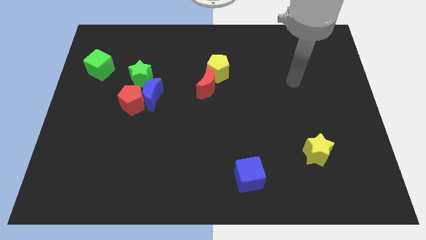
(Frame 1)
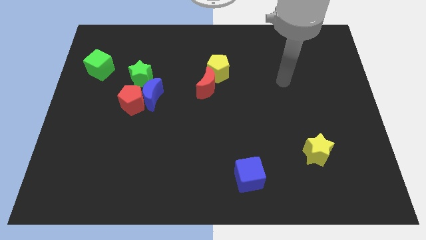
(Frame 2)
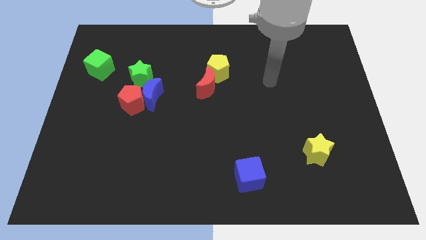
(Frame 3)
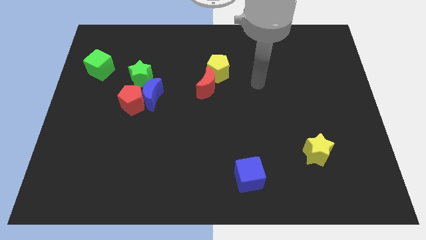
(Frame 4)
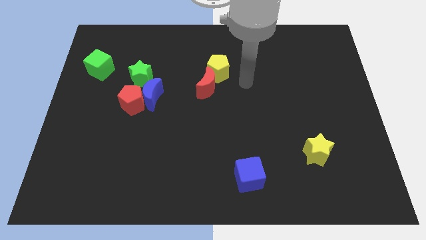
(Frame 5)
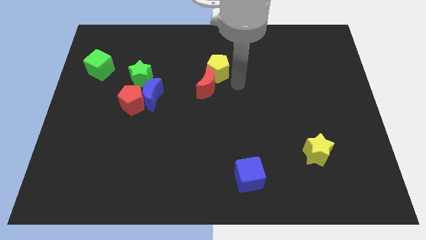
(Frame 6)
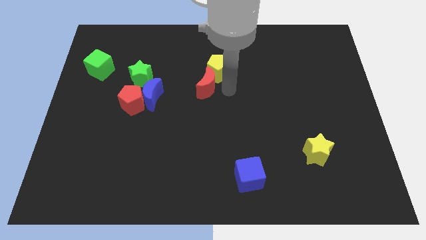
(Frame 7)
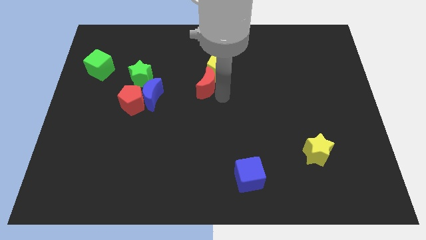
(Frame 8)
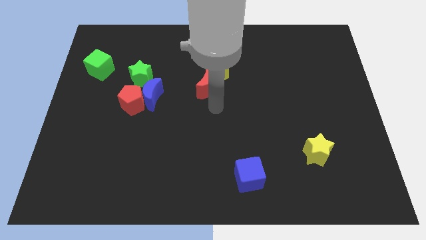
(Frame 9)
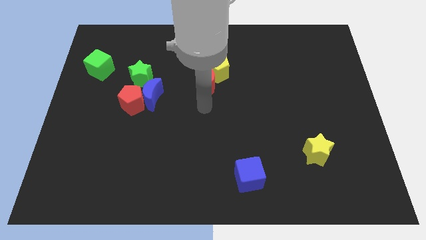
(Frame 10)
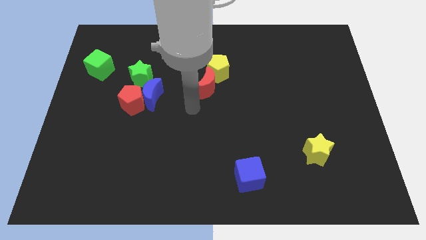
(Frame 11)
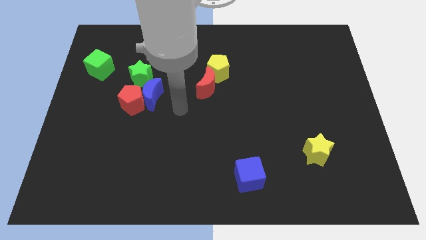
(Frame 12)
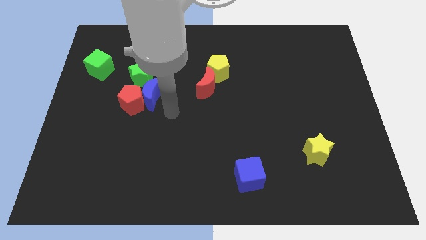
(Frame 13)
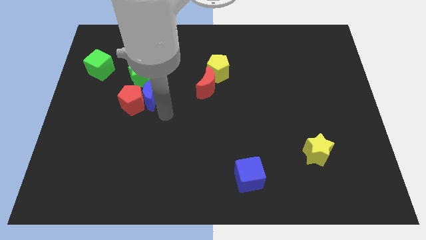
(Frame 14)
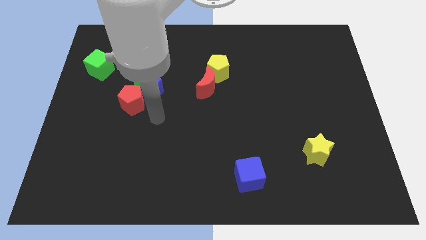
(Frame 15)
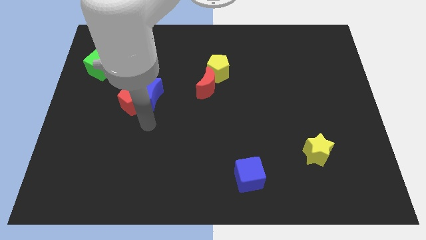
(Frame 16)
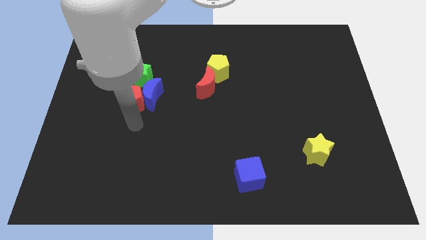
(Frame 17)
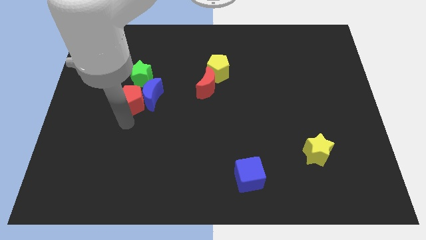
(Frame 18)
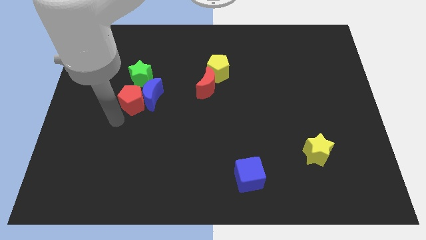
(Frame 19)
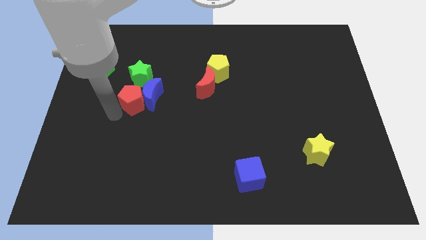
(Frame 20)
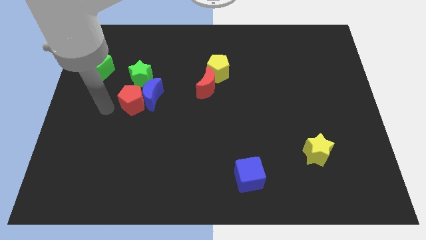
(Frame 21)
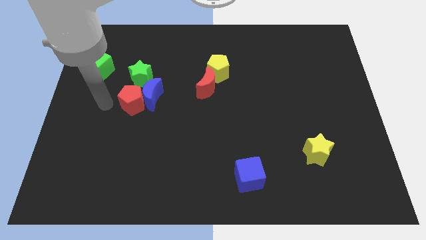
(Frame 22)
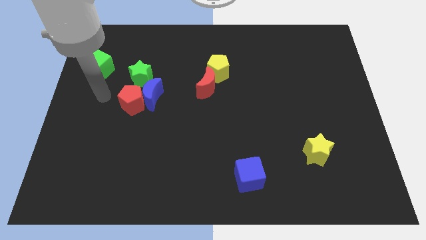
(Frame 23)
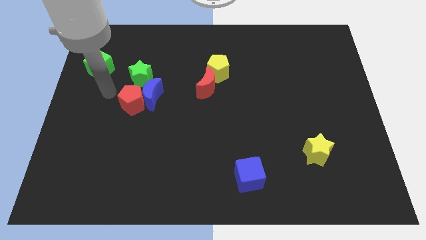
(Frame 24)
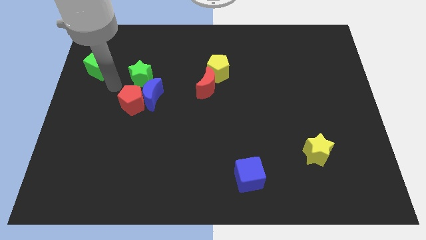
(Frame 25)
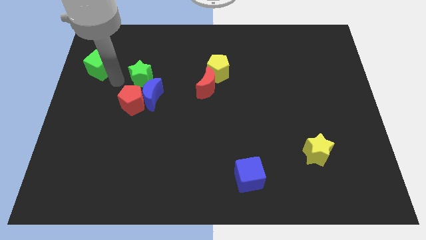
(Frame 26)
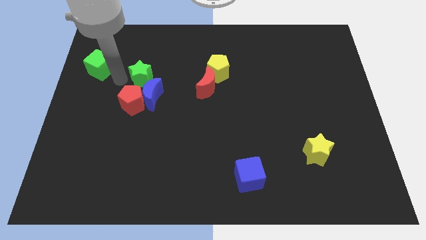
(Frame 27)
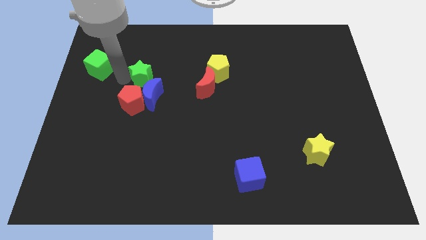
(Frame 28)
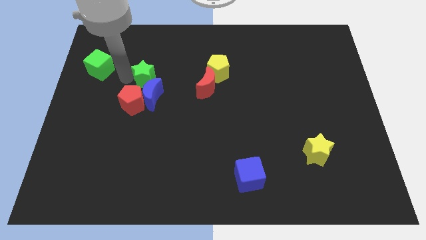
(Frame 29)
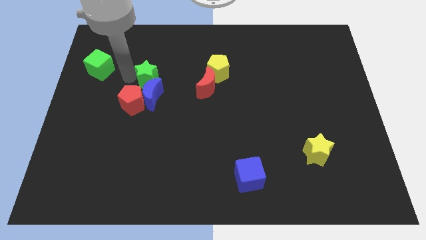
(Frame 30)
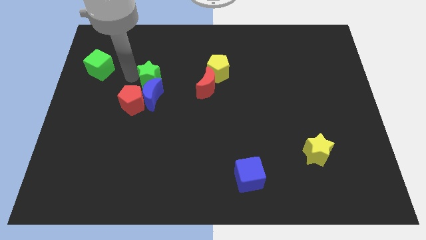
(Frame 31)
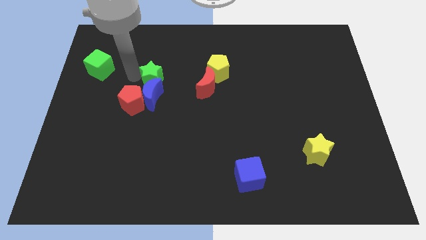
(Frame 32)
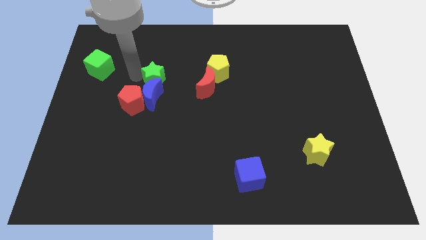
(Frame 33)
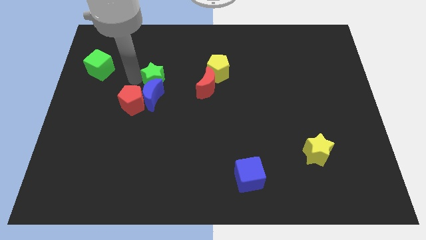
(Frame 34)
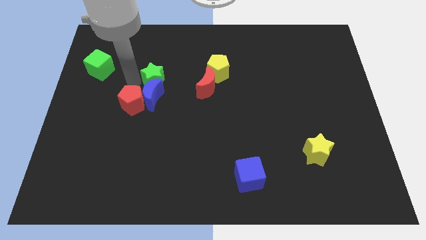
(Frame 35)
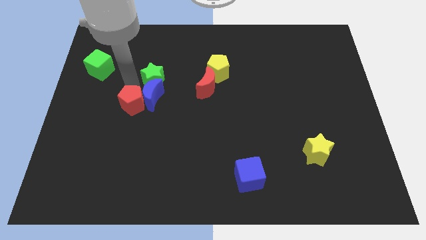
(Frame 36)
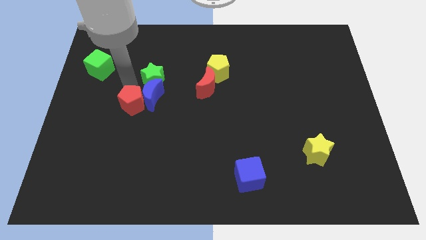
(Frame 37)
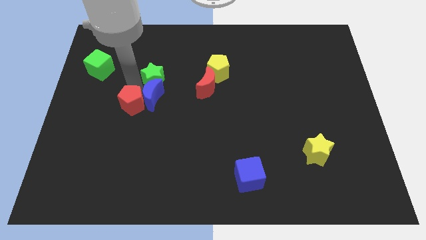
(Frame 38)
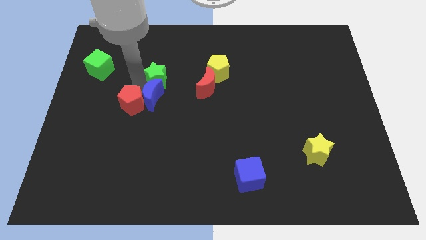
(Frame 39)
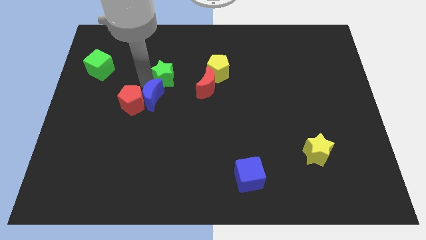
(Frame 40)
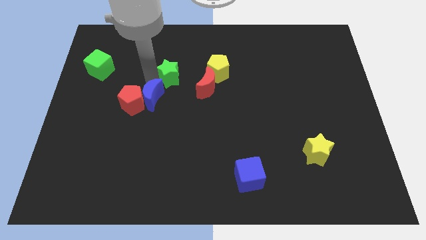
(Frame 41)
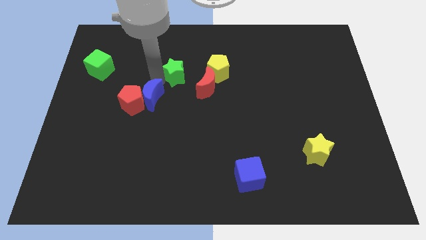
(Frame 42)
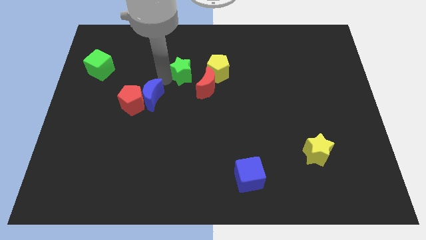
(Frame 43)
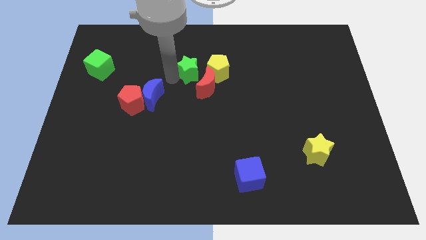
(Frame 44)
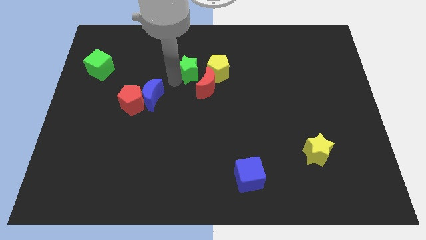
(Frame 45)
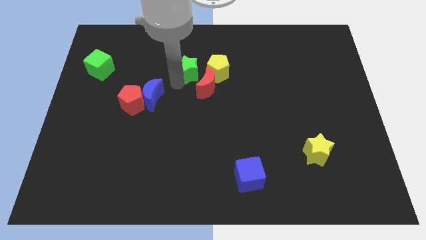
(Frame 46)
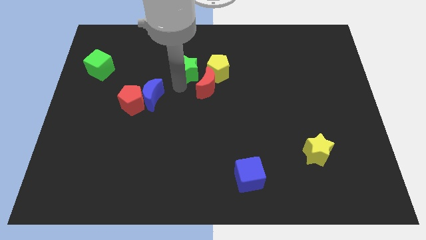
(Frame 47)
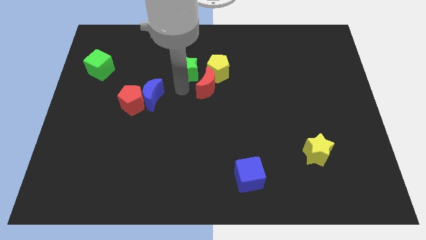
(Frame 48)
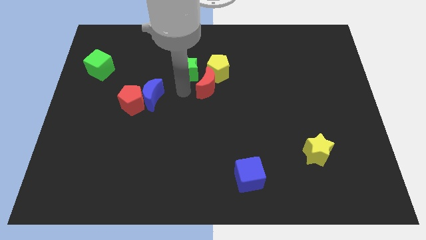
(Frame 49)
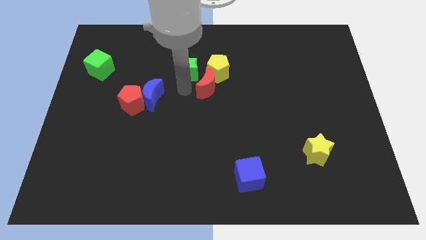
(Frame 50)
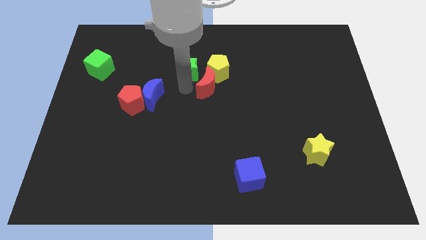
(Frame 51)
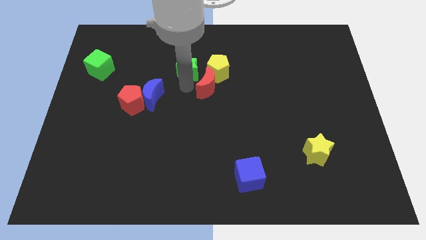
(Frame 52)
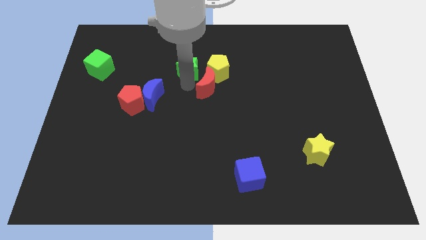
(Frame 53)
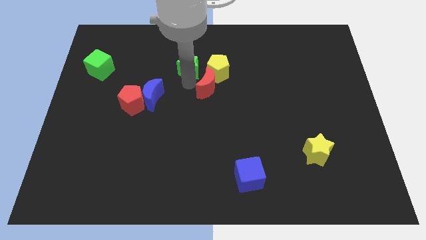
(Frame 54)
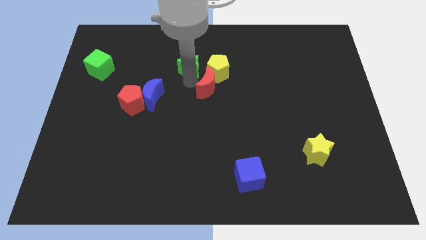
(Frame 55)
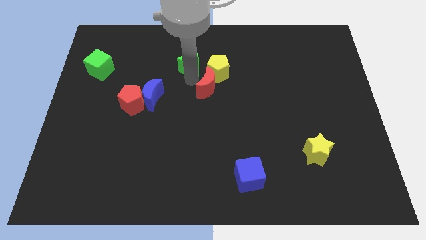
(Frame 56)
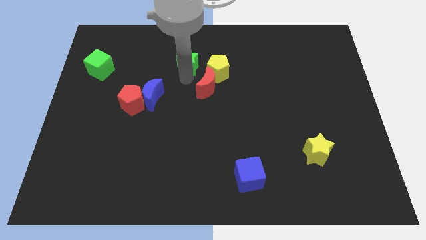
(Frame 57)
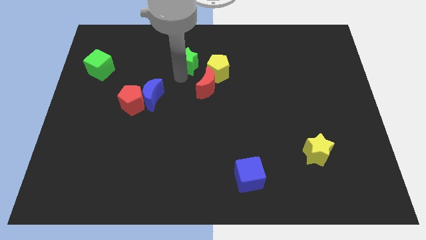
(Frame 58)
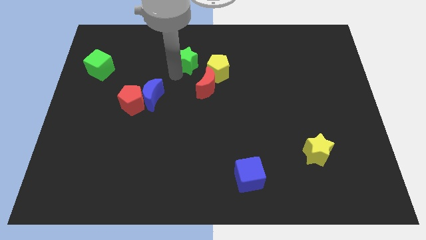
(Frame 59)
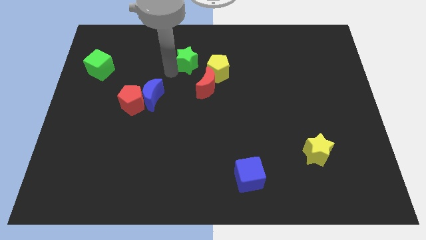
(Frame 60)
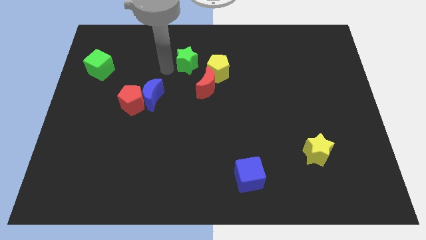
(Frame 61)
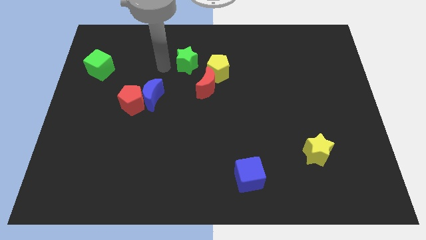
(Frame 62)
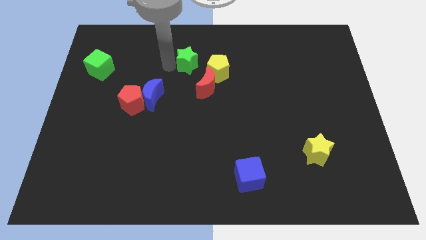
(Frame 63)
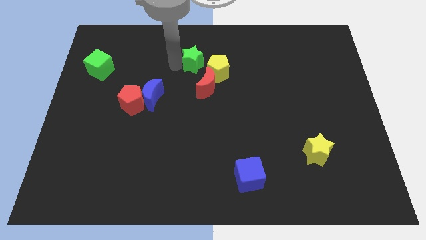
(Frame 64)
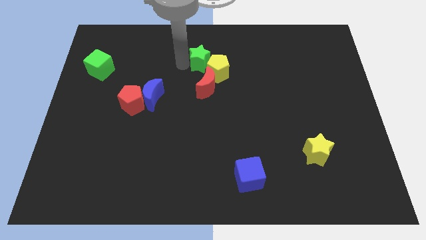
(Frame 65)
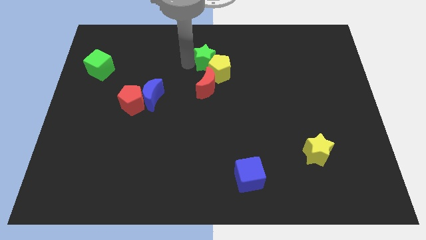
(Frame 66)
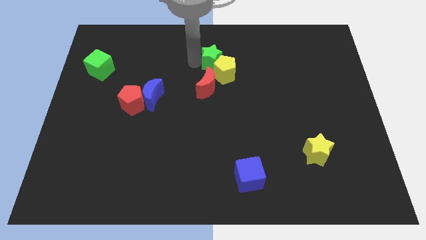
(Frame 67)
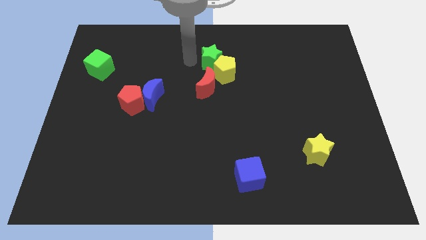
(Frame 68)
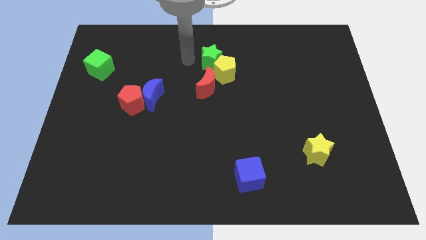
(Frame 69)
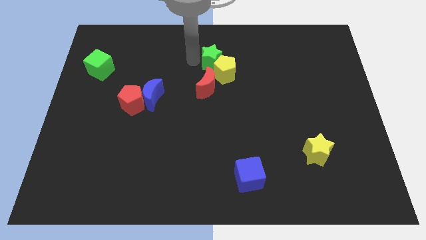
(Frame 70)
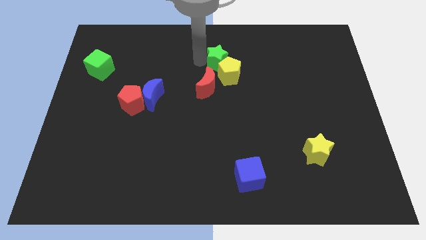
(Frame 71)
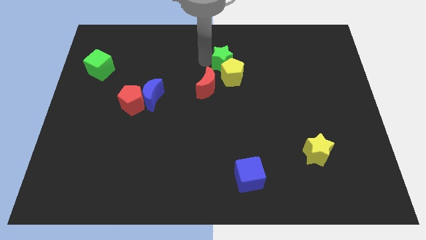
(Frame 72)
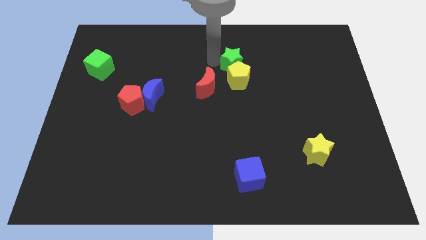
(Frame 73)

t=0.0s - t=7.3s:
push the green star right

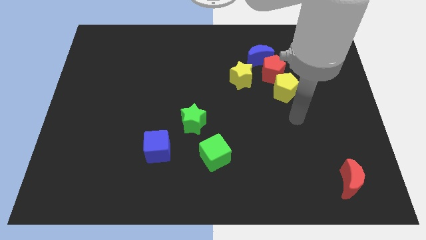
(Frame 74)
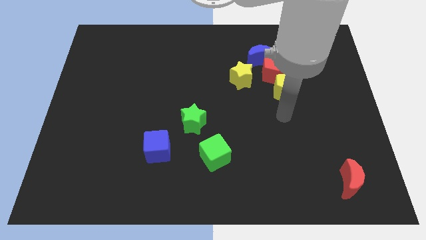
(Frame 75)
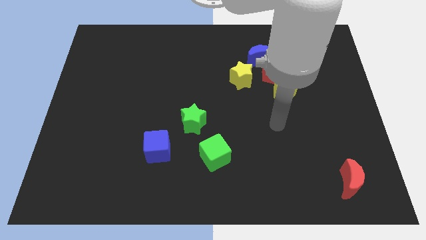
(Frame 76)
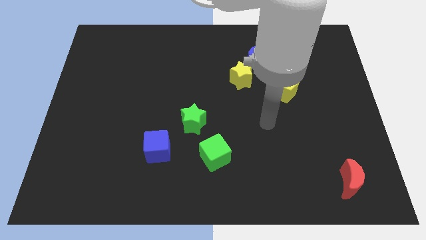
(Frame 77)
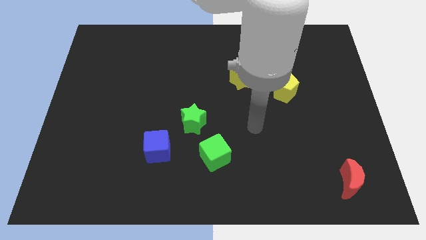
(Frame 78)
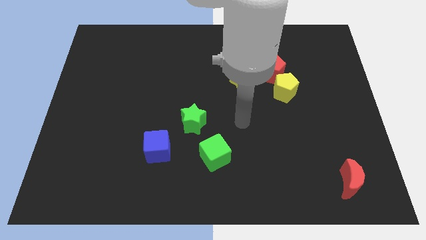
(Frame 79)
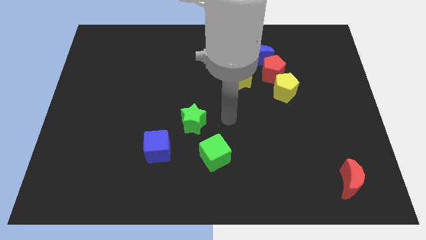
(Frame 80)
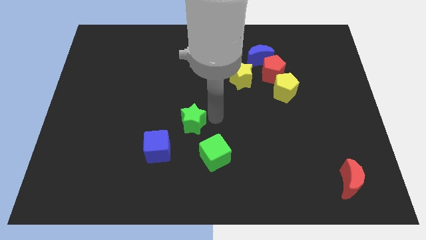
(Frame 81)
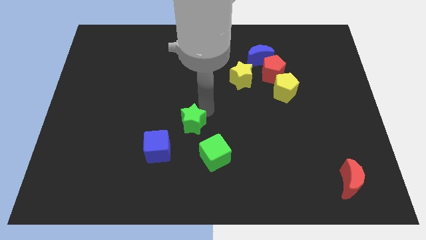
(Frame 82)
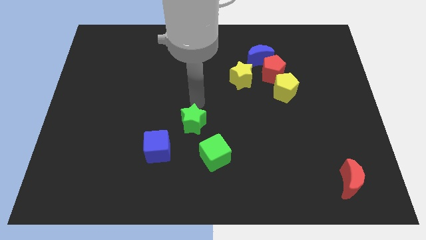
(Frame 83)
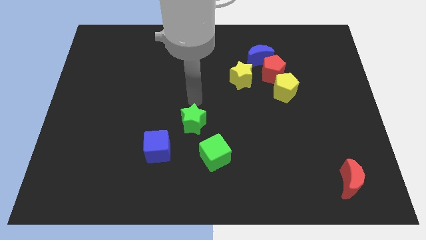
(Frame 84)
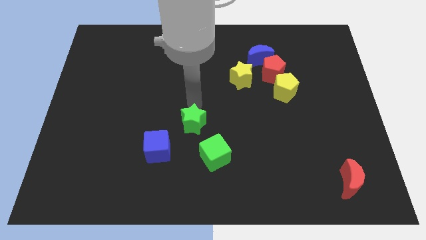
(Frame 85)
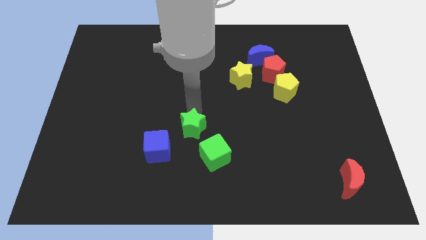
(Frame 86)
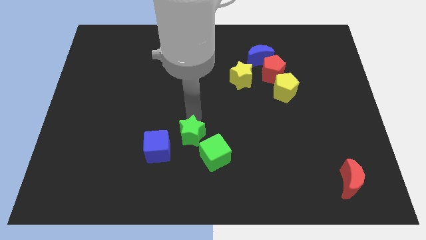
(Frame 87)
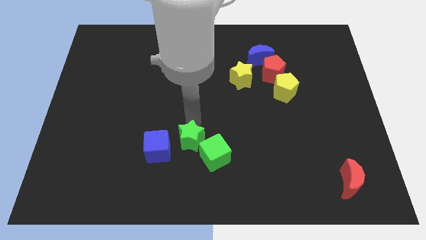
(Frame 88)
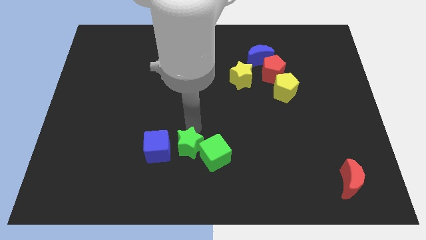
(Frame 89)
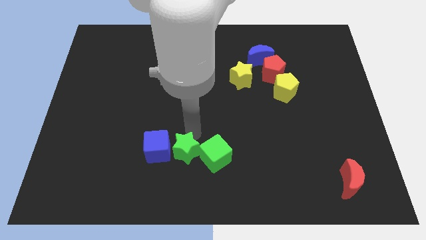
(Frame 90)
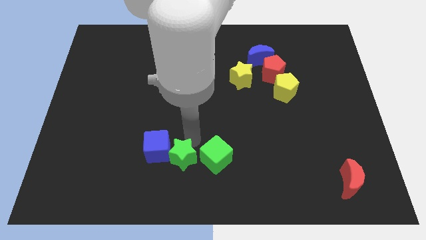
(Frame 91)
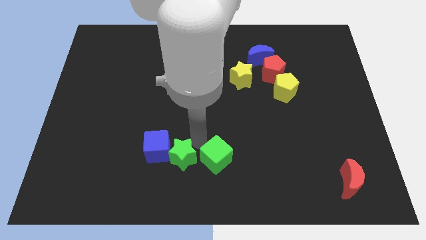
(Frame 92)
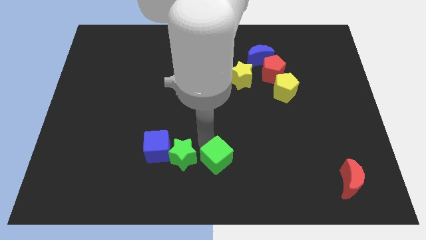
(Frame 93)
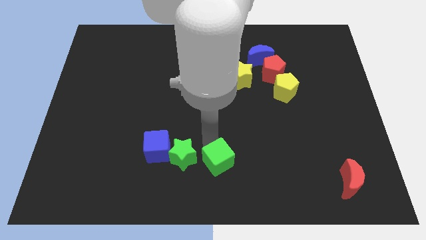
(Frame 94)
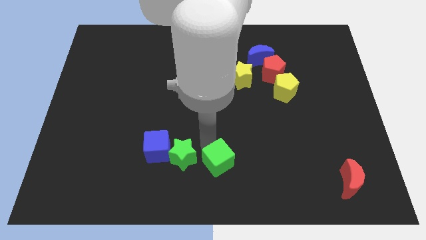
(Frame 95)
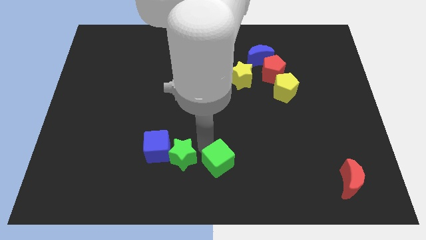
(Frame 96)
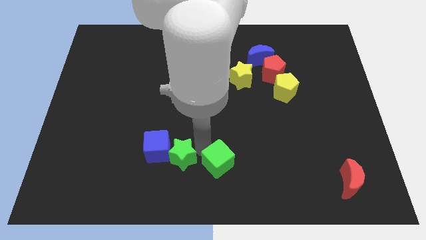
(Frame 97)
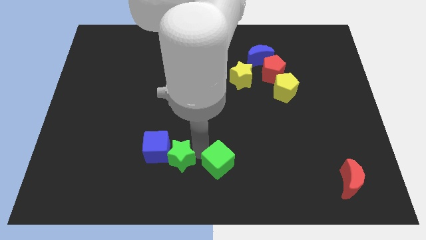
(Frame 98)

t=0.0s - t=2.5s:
move the green star slightly downwards and to the left
